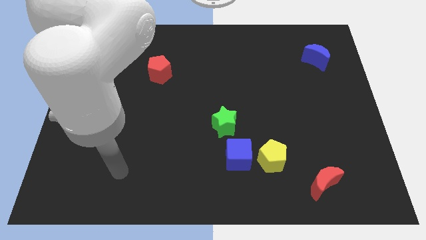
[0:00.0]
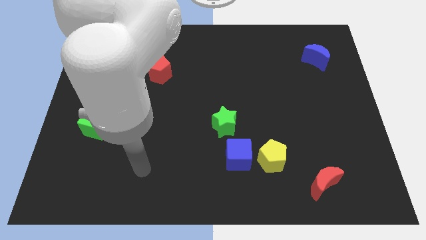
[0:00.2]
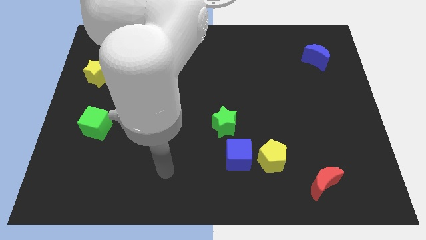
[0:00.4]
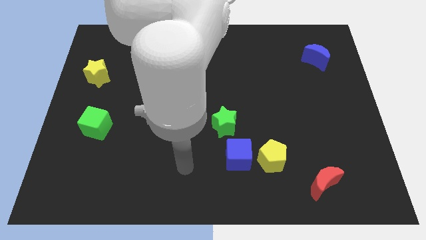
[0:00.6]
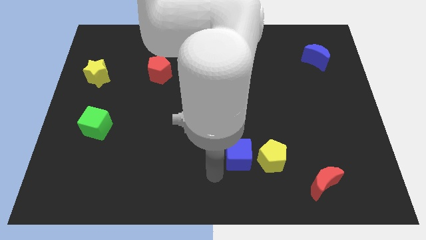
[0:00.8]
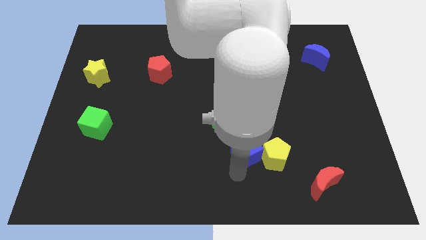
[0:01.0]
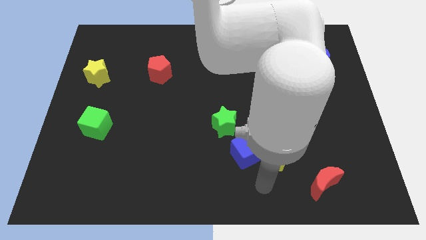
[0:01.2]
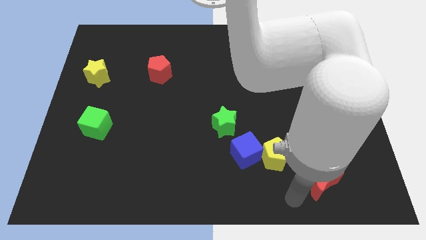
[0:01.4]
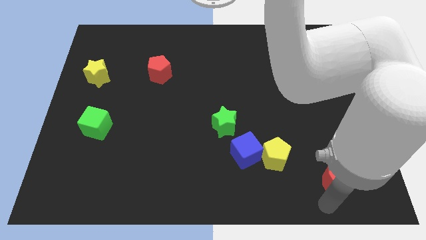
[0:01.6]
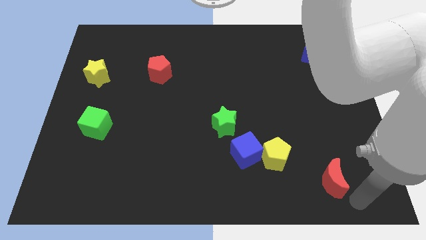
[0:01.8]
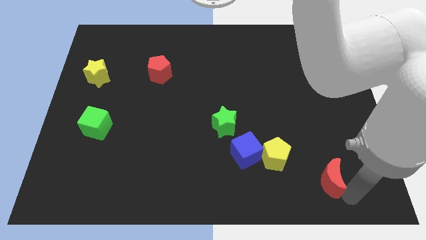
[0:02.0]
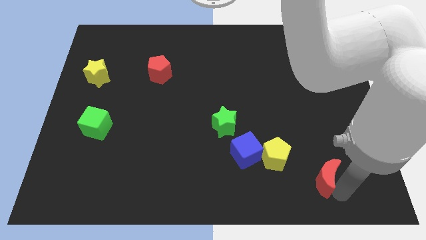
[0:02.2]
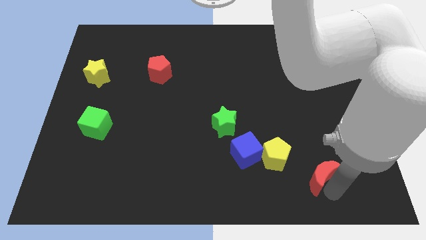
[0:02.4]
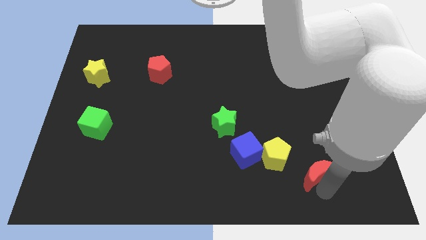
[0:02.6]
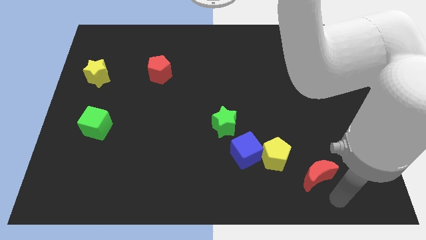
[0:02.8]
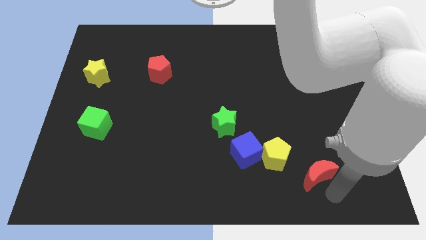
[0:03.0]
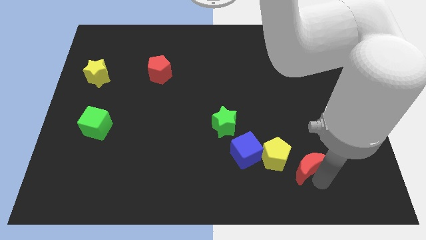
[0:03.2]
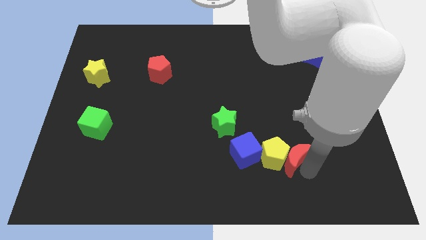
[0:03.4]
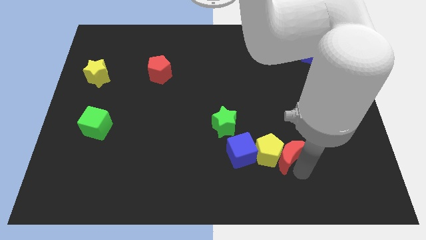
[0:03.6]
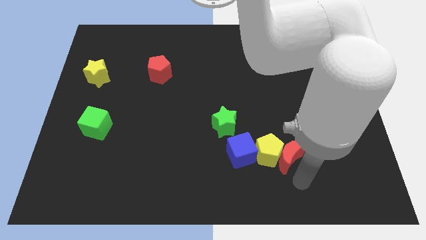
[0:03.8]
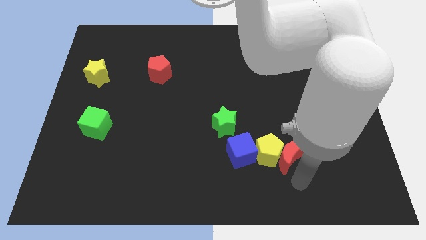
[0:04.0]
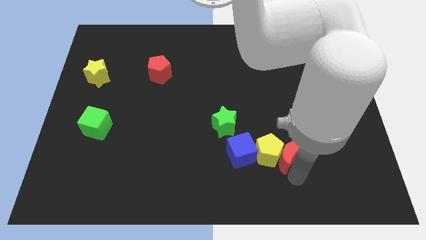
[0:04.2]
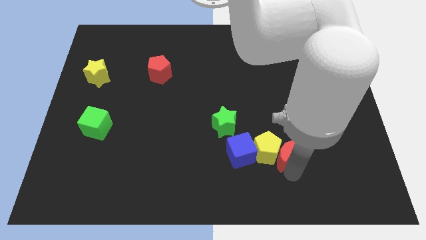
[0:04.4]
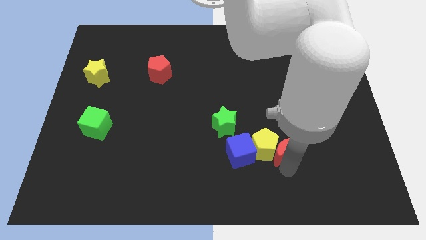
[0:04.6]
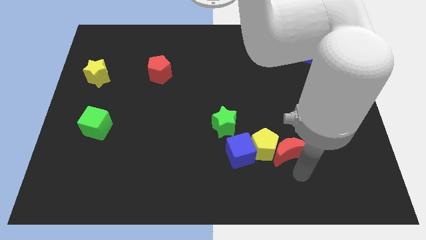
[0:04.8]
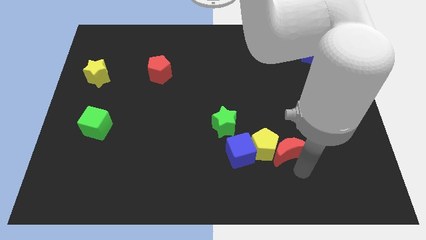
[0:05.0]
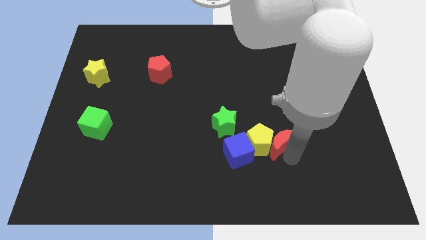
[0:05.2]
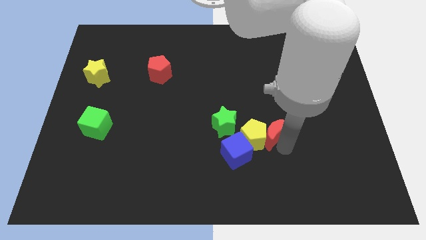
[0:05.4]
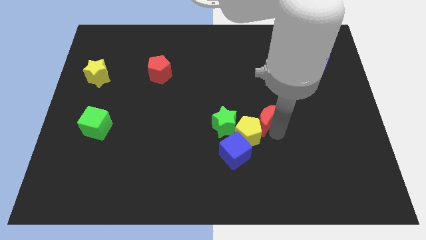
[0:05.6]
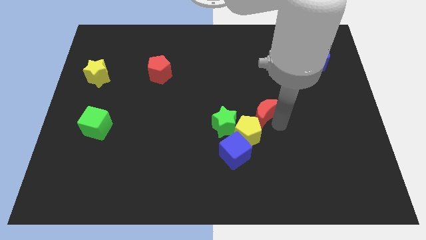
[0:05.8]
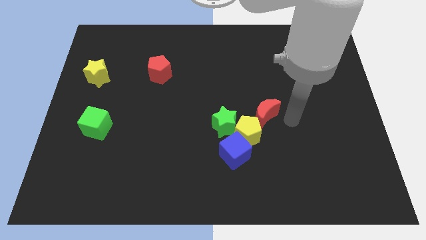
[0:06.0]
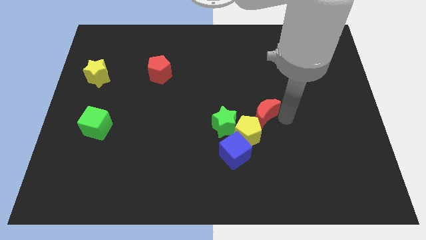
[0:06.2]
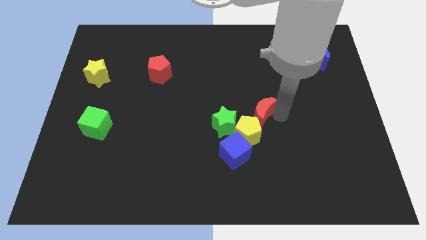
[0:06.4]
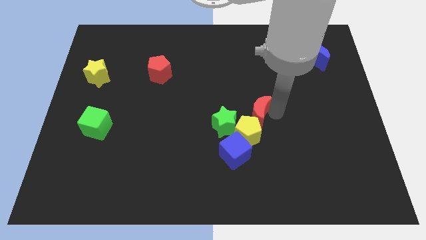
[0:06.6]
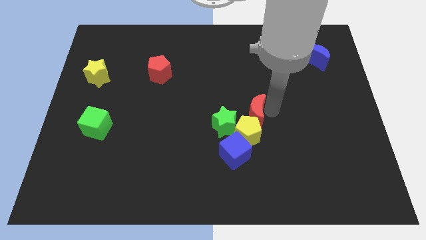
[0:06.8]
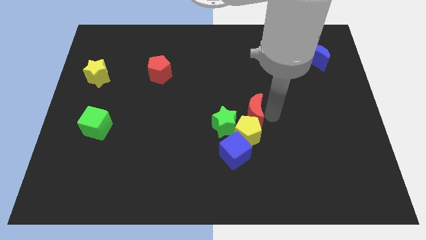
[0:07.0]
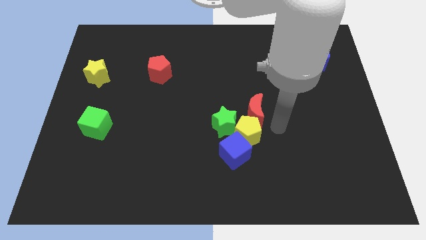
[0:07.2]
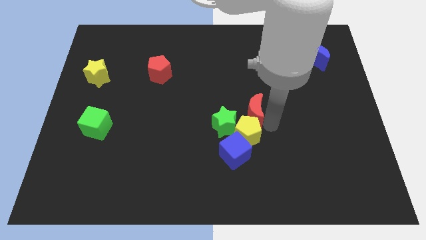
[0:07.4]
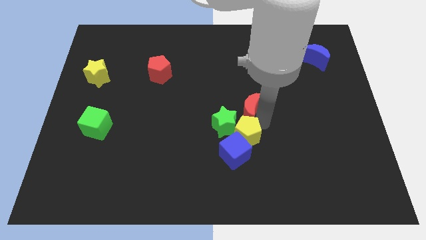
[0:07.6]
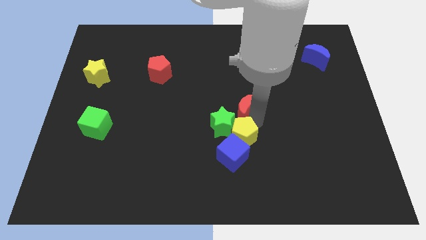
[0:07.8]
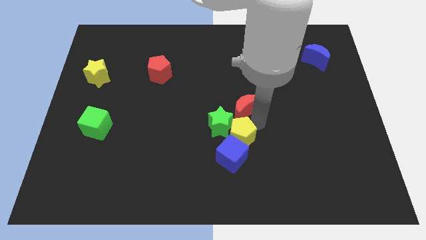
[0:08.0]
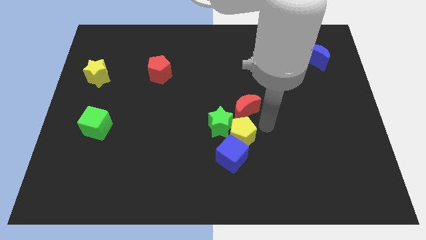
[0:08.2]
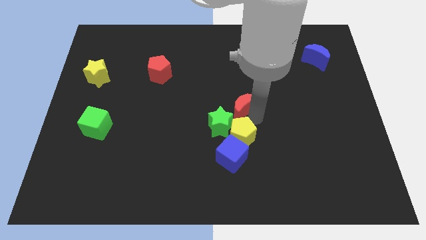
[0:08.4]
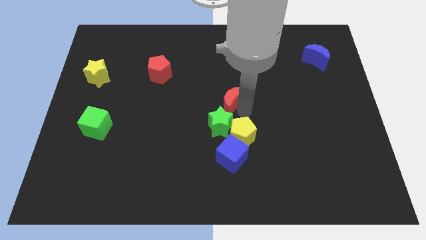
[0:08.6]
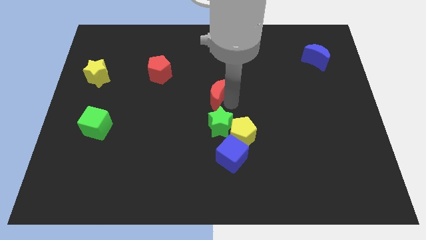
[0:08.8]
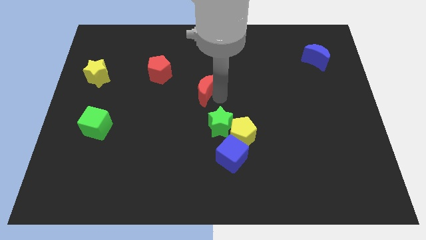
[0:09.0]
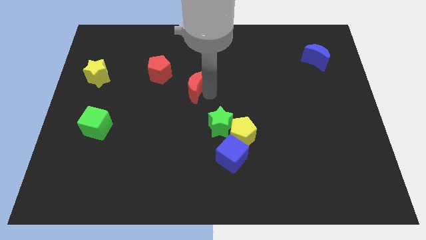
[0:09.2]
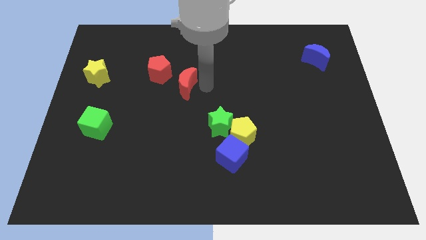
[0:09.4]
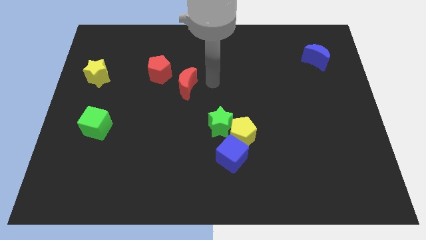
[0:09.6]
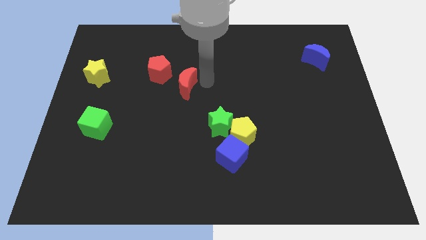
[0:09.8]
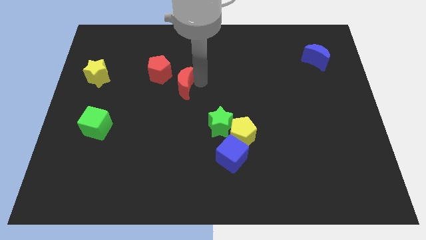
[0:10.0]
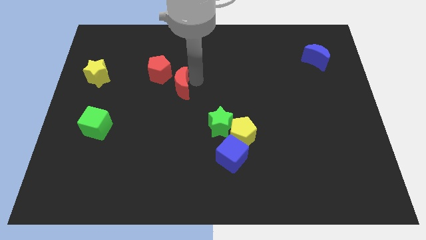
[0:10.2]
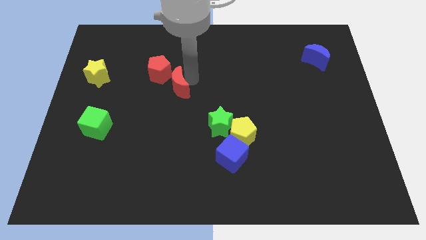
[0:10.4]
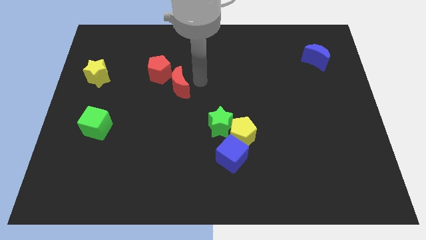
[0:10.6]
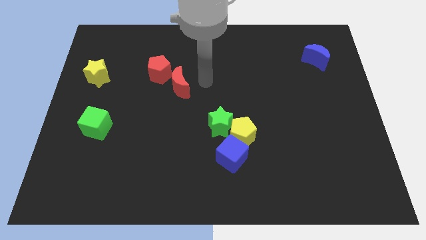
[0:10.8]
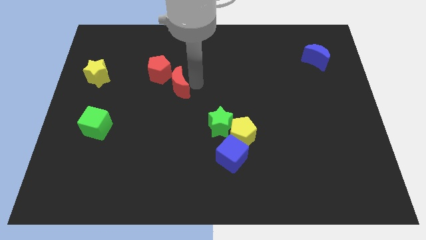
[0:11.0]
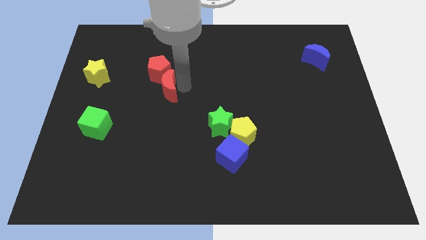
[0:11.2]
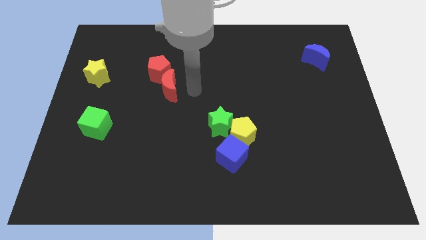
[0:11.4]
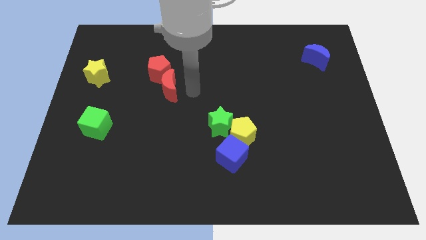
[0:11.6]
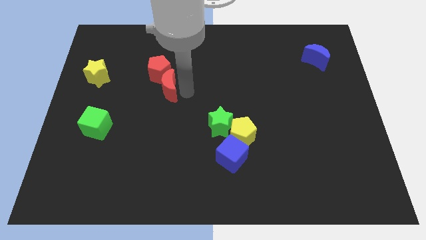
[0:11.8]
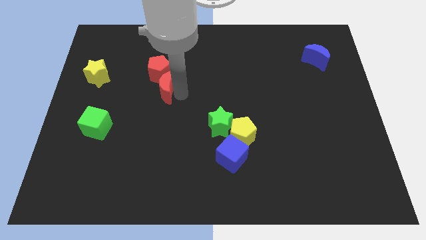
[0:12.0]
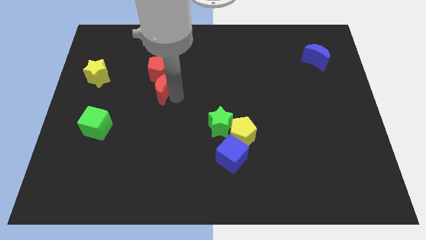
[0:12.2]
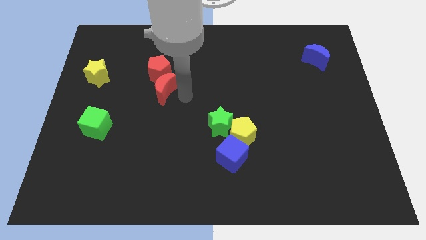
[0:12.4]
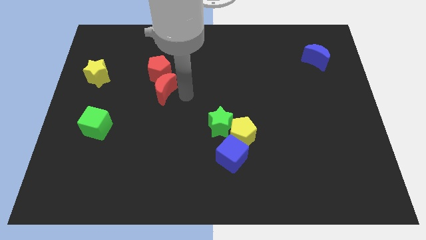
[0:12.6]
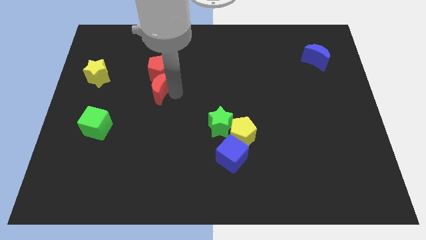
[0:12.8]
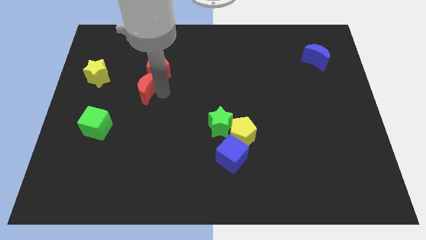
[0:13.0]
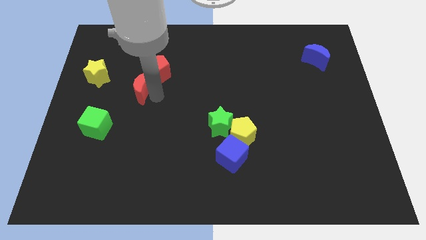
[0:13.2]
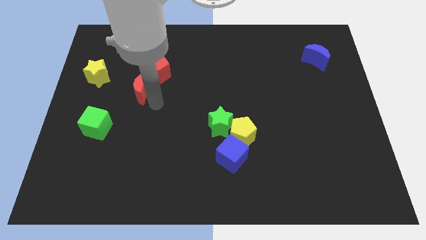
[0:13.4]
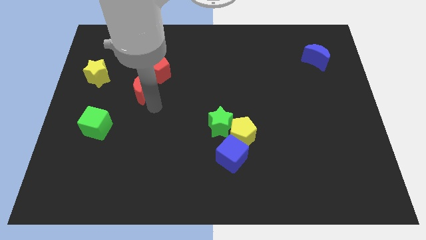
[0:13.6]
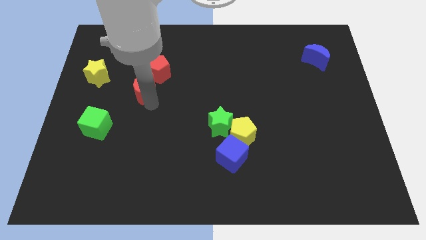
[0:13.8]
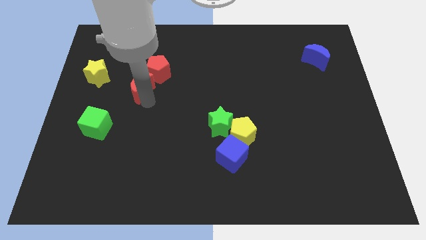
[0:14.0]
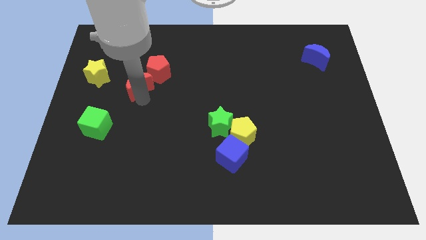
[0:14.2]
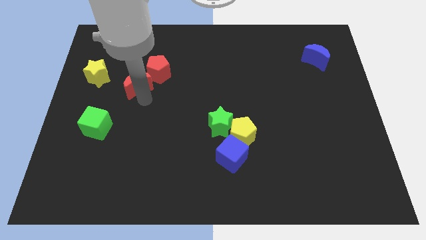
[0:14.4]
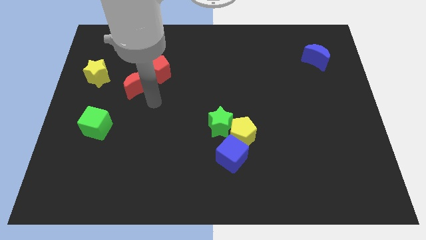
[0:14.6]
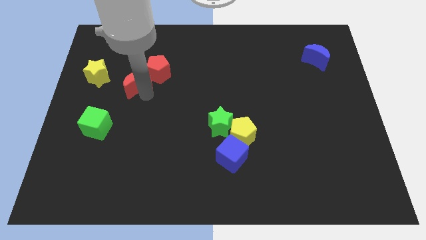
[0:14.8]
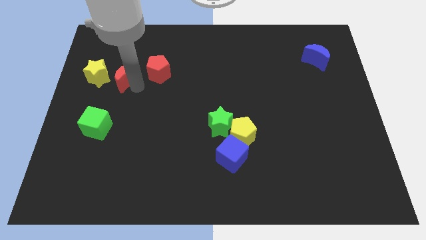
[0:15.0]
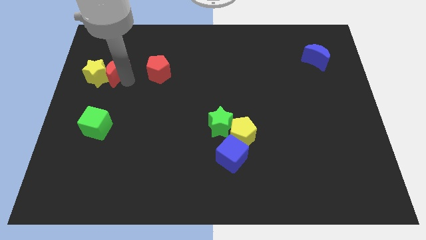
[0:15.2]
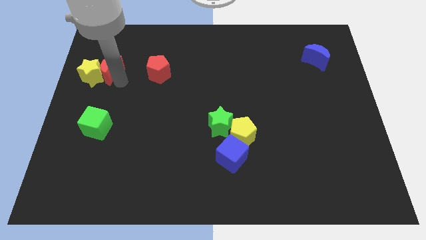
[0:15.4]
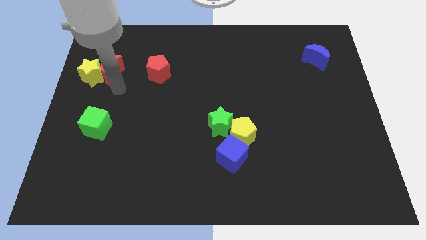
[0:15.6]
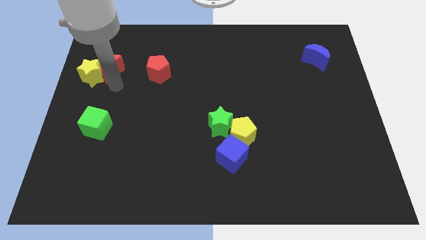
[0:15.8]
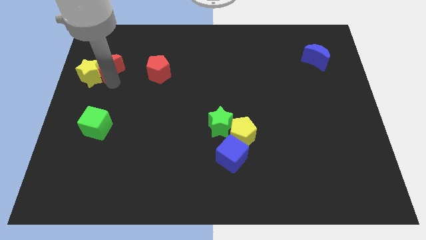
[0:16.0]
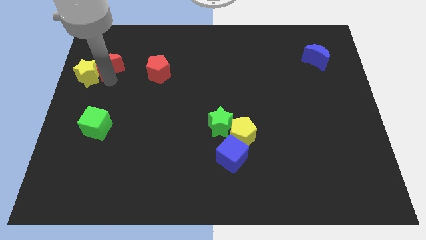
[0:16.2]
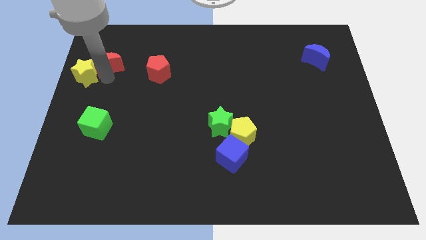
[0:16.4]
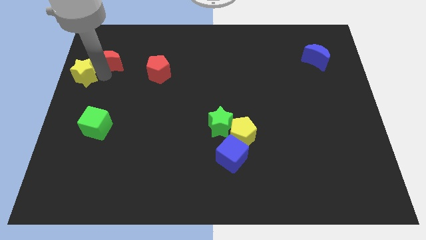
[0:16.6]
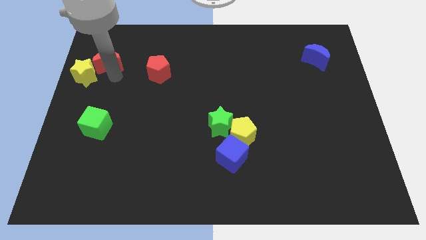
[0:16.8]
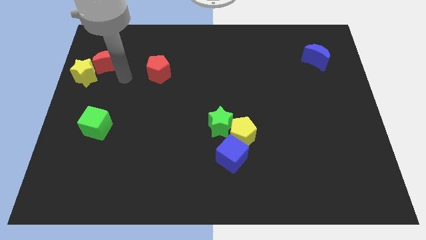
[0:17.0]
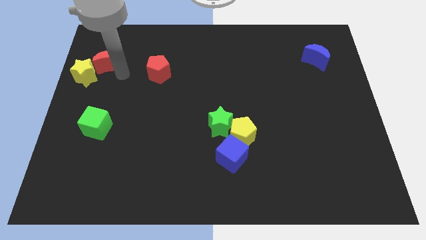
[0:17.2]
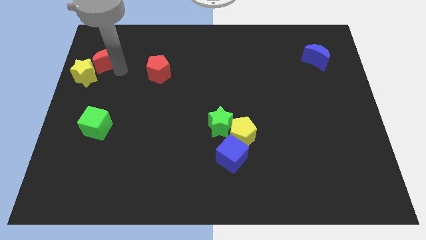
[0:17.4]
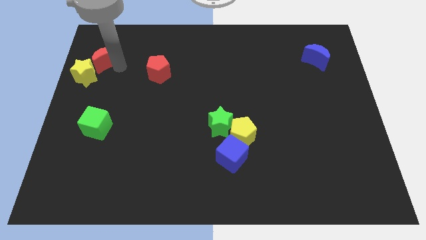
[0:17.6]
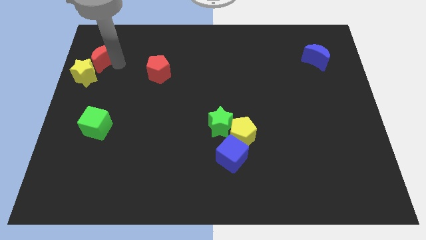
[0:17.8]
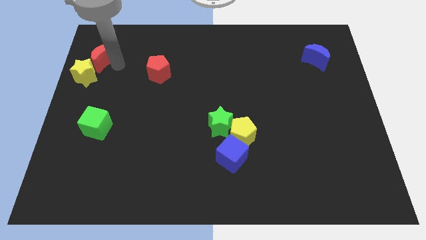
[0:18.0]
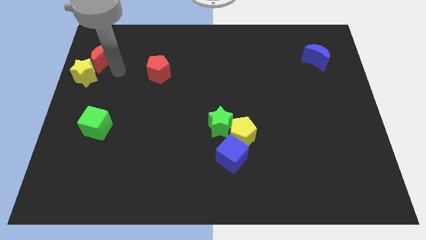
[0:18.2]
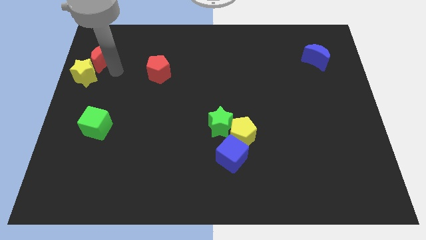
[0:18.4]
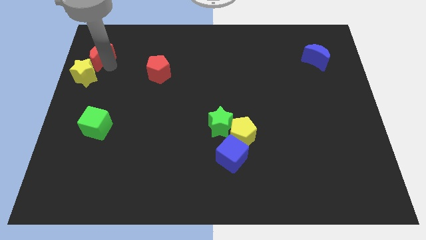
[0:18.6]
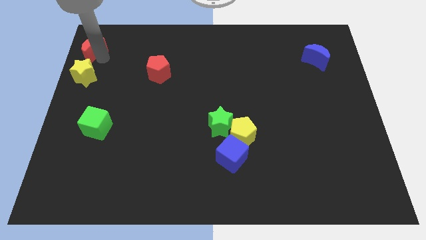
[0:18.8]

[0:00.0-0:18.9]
put the red moon to the upper left corner
